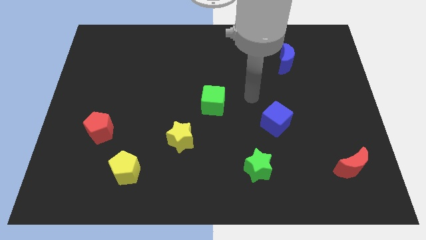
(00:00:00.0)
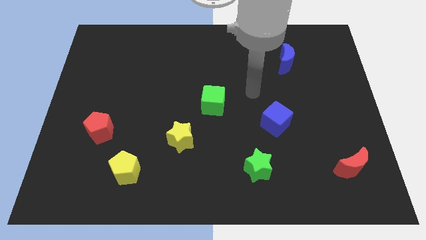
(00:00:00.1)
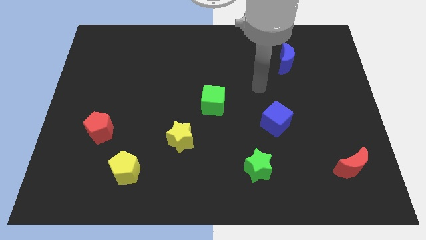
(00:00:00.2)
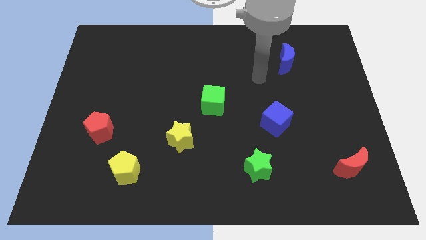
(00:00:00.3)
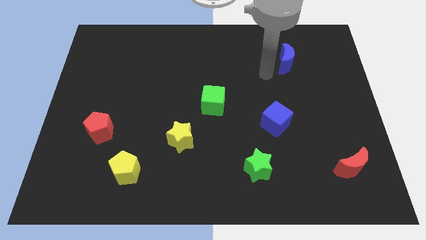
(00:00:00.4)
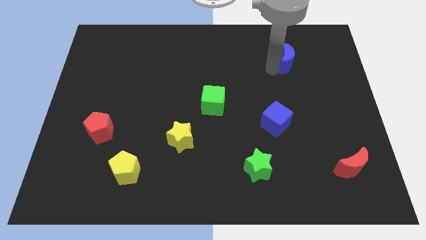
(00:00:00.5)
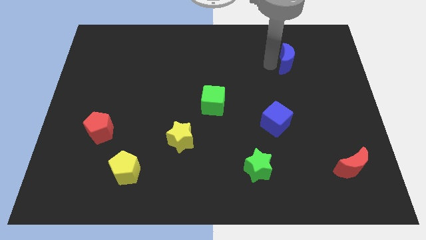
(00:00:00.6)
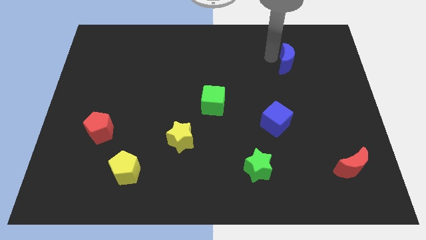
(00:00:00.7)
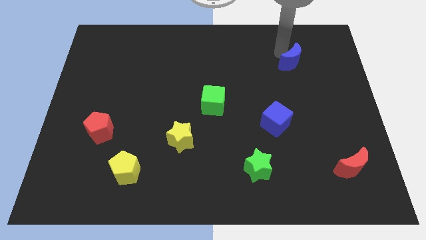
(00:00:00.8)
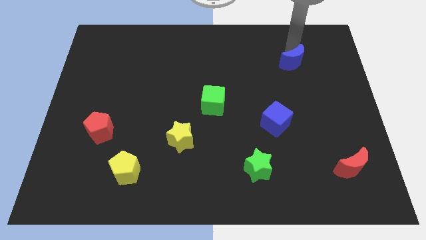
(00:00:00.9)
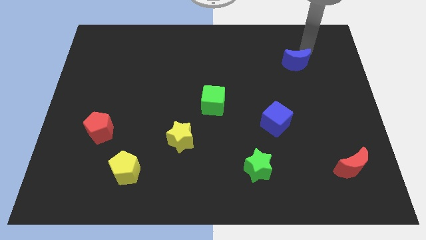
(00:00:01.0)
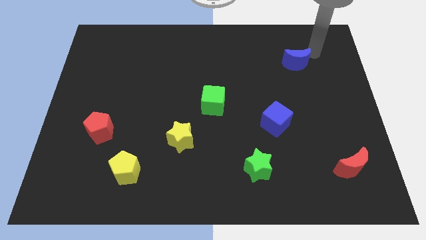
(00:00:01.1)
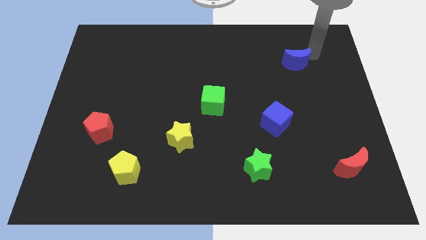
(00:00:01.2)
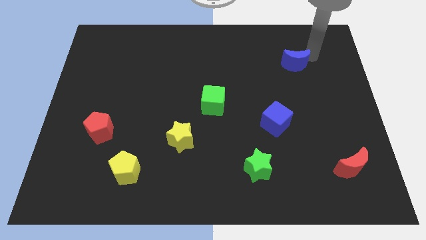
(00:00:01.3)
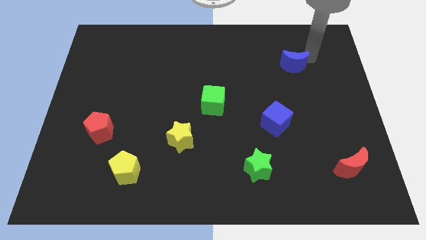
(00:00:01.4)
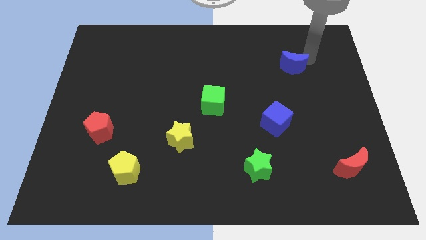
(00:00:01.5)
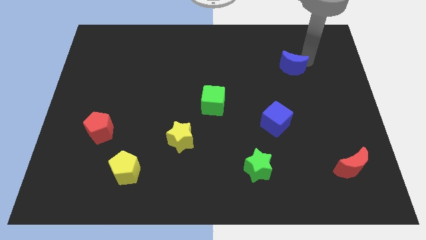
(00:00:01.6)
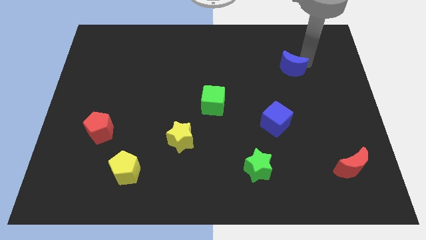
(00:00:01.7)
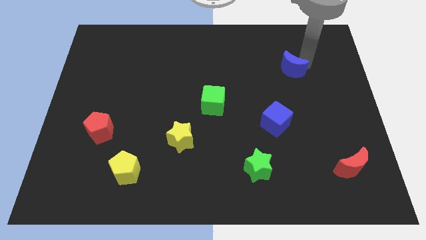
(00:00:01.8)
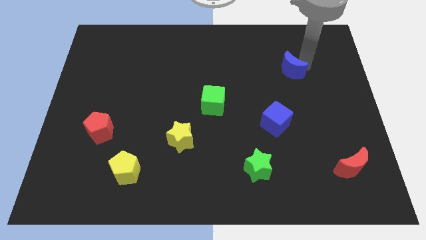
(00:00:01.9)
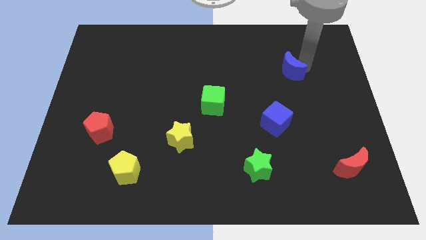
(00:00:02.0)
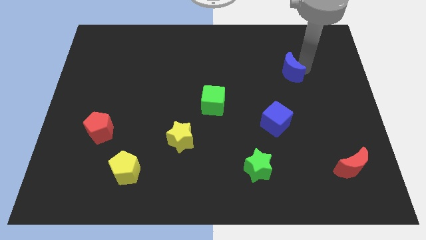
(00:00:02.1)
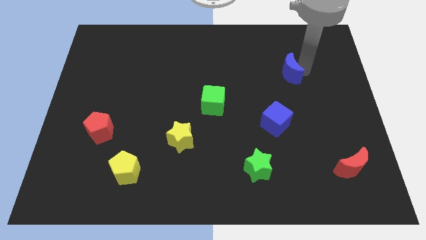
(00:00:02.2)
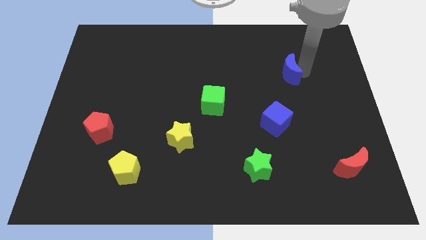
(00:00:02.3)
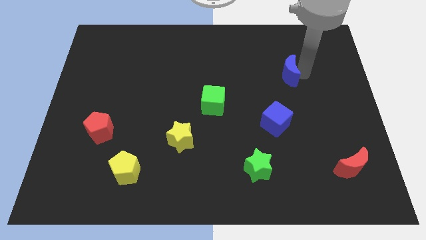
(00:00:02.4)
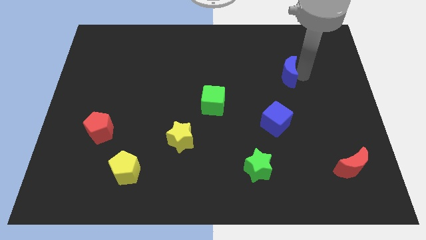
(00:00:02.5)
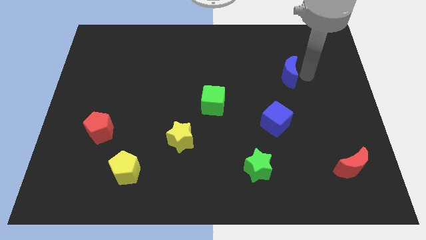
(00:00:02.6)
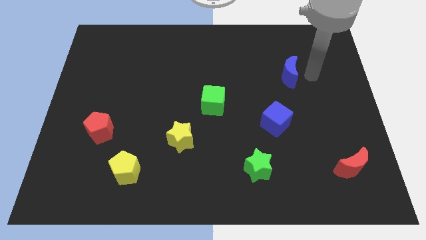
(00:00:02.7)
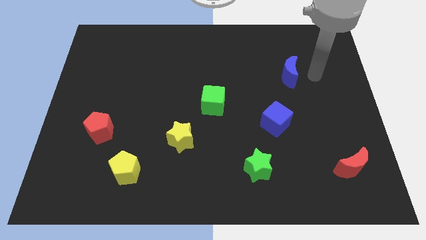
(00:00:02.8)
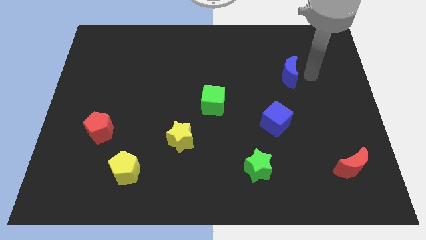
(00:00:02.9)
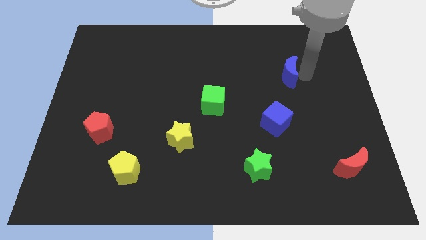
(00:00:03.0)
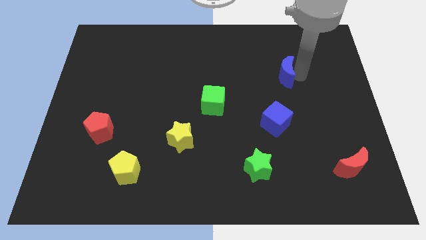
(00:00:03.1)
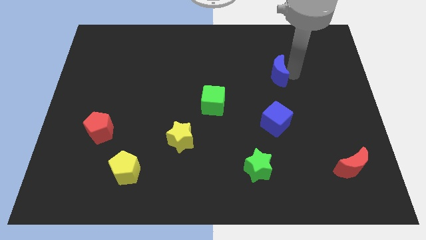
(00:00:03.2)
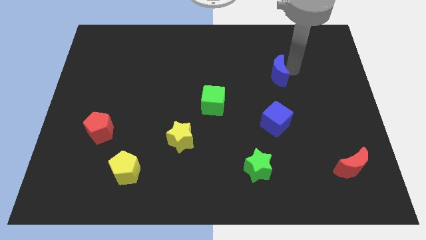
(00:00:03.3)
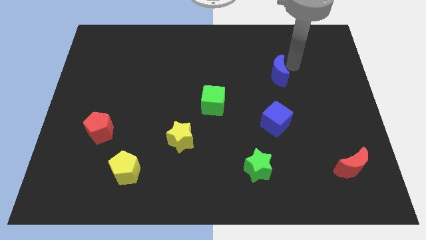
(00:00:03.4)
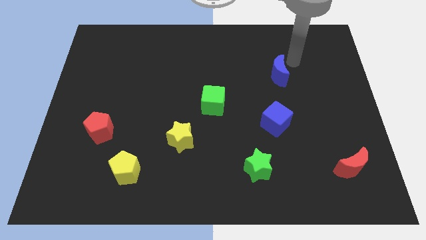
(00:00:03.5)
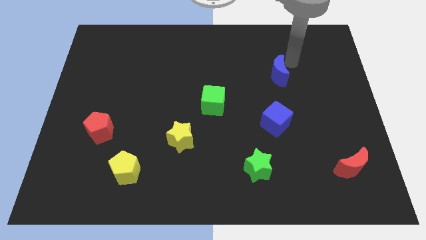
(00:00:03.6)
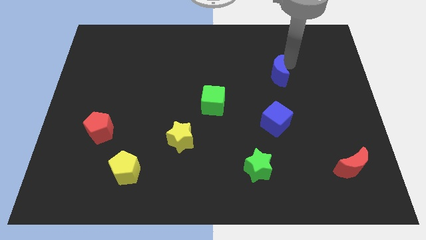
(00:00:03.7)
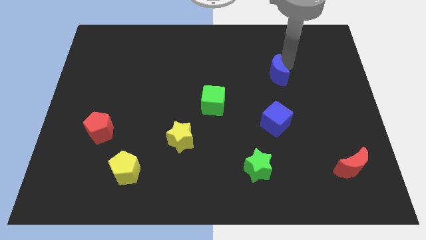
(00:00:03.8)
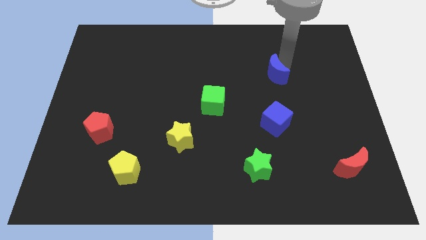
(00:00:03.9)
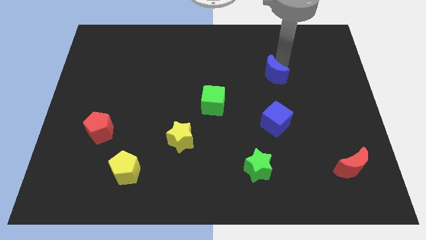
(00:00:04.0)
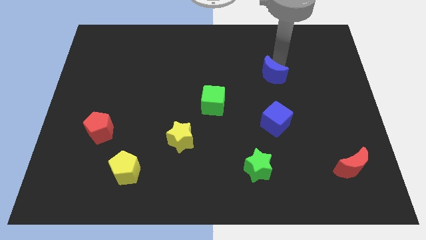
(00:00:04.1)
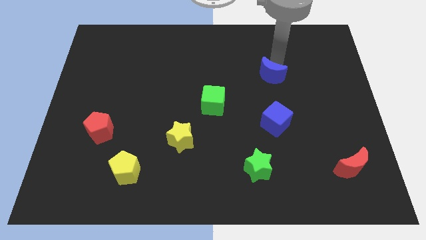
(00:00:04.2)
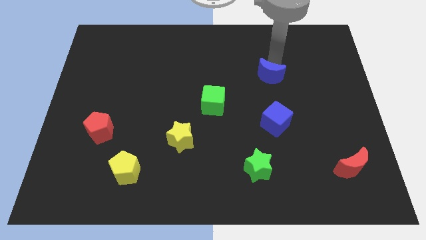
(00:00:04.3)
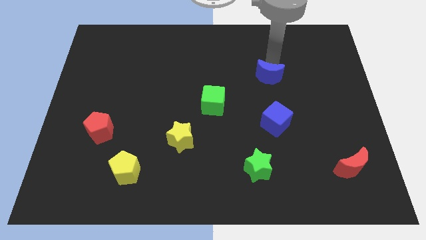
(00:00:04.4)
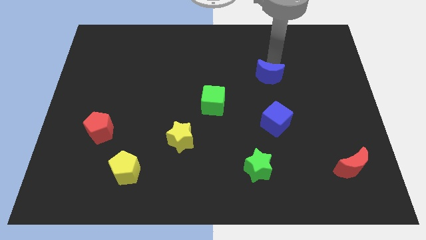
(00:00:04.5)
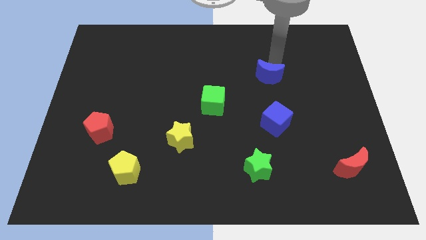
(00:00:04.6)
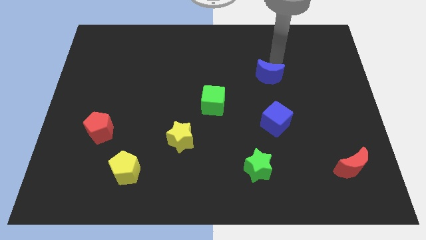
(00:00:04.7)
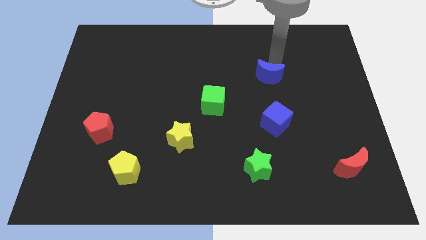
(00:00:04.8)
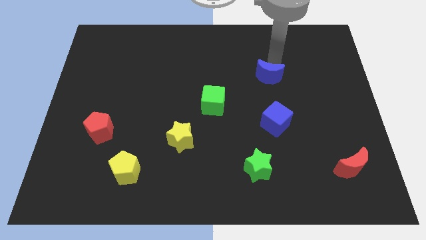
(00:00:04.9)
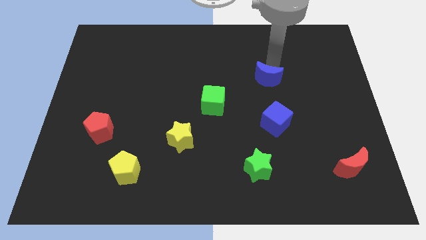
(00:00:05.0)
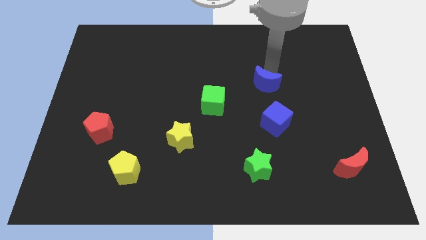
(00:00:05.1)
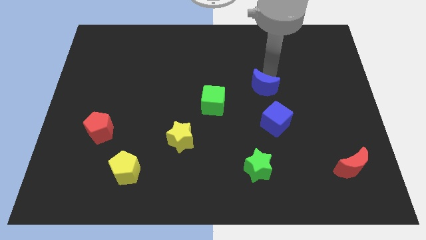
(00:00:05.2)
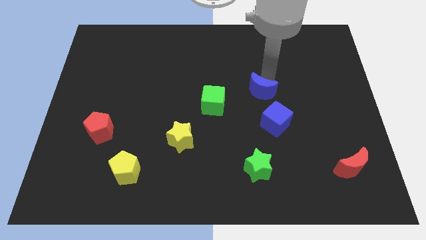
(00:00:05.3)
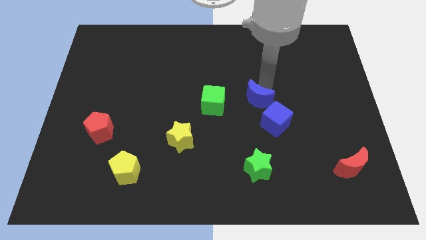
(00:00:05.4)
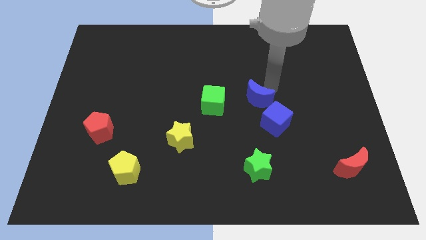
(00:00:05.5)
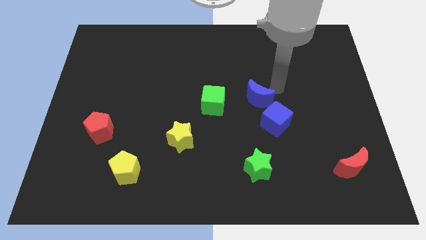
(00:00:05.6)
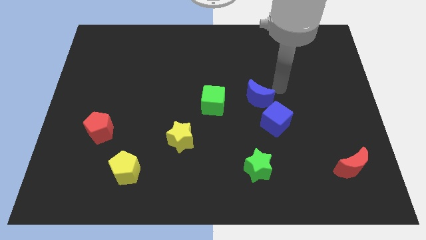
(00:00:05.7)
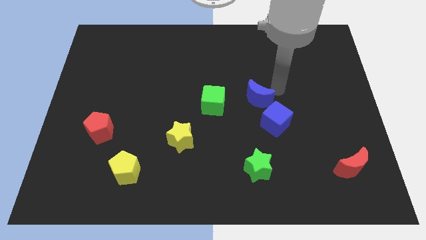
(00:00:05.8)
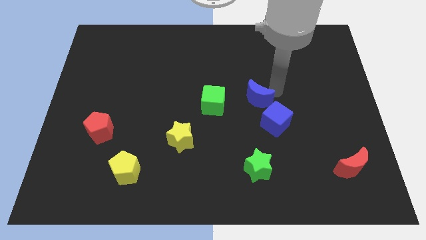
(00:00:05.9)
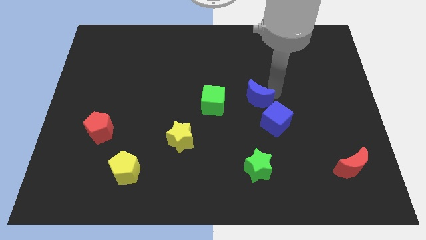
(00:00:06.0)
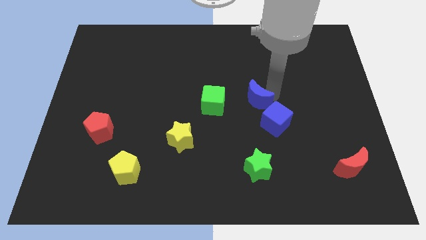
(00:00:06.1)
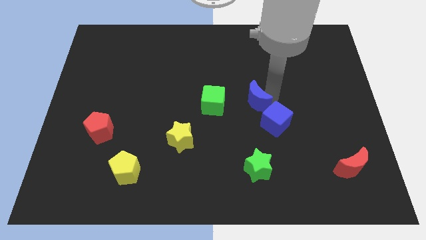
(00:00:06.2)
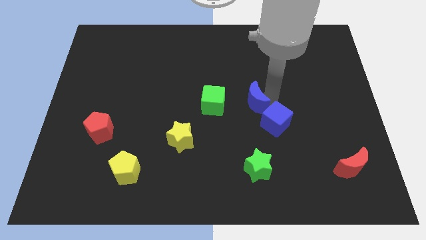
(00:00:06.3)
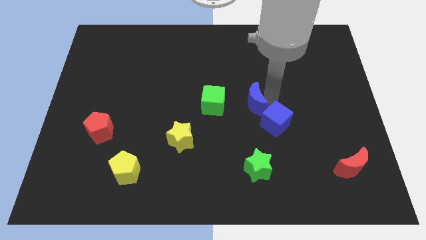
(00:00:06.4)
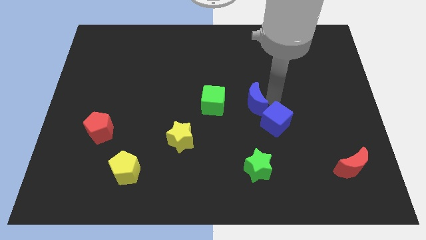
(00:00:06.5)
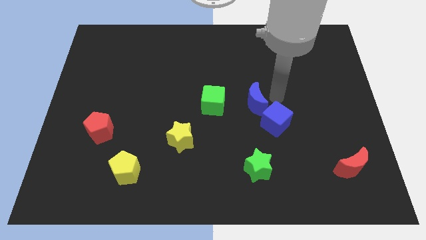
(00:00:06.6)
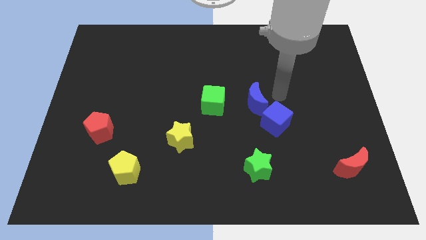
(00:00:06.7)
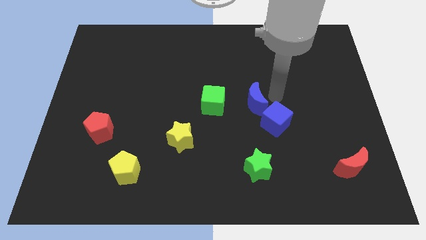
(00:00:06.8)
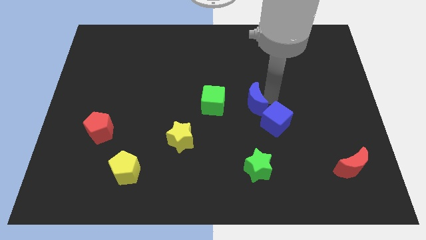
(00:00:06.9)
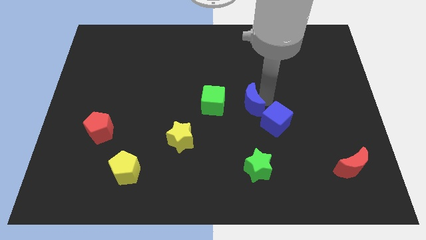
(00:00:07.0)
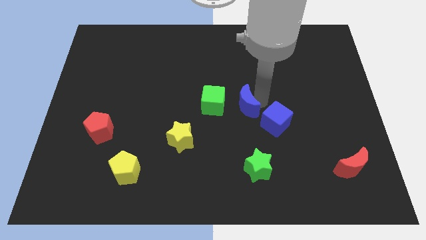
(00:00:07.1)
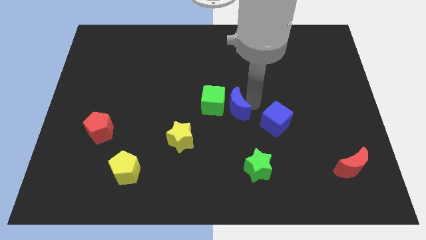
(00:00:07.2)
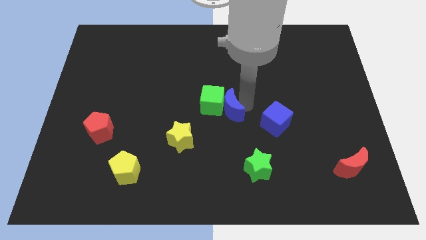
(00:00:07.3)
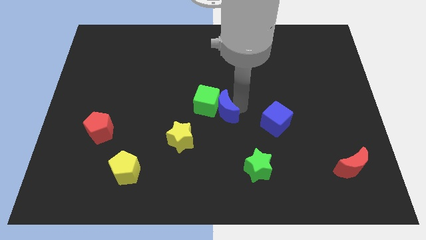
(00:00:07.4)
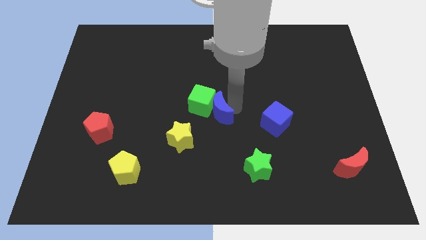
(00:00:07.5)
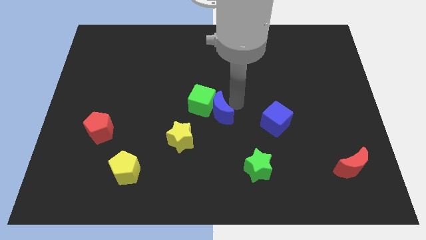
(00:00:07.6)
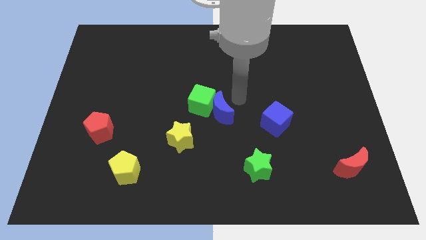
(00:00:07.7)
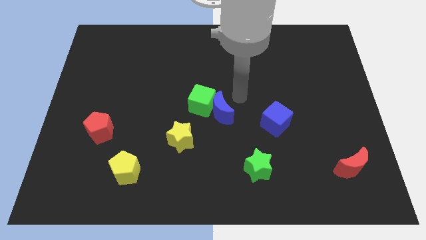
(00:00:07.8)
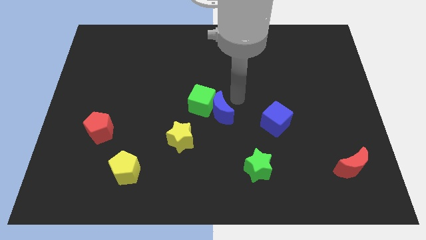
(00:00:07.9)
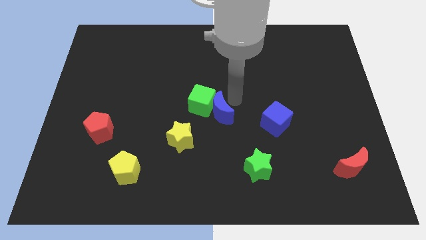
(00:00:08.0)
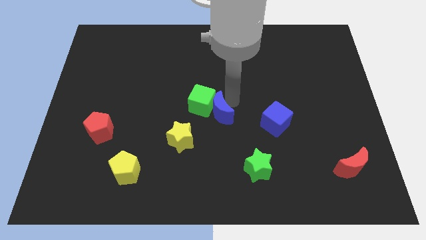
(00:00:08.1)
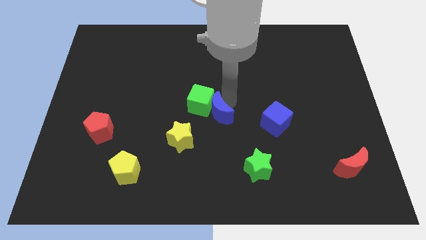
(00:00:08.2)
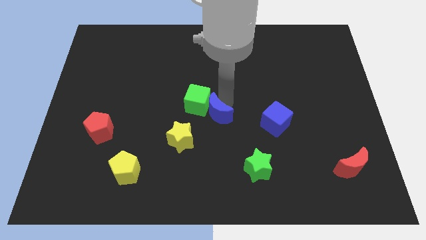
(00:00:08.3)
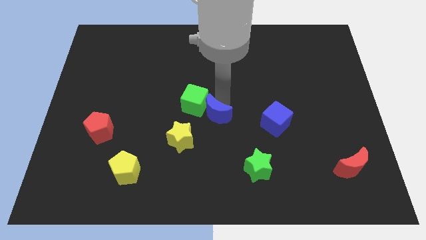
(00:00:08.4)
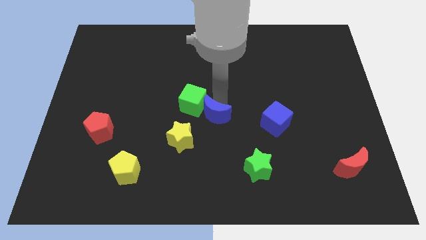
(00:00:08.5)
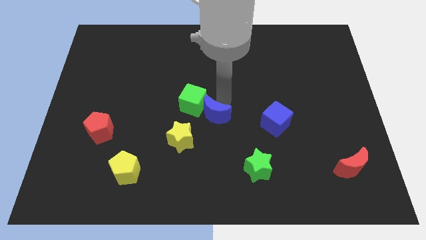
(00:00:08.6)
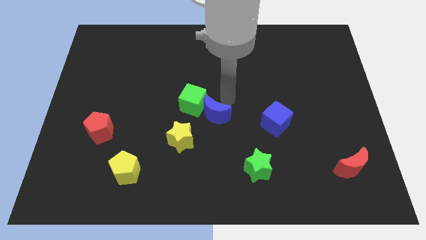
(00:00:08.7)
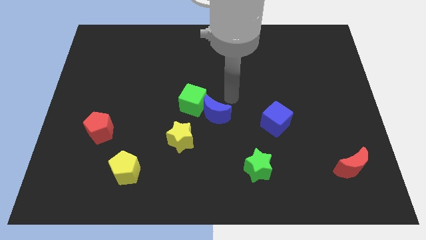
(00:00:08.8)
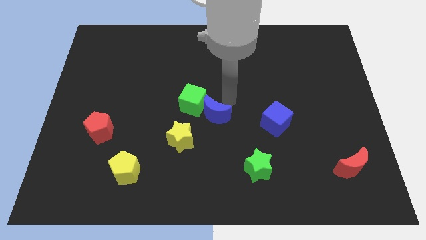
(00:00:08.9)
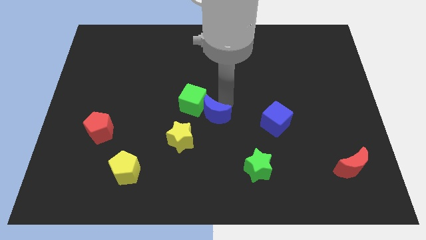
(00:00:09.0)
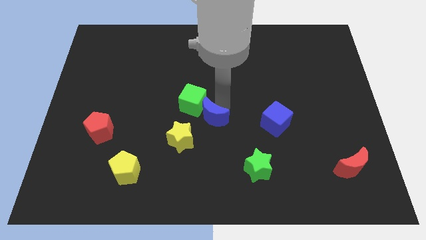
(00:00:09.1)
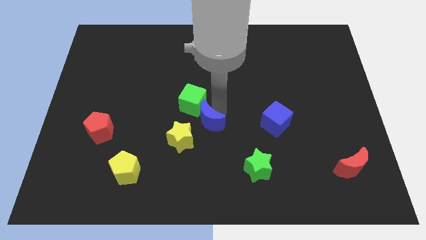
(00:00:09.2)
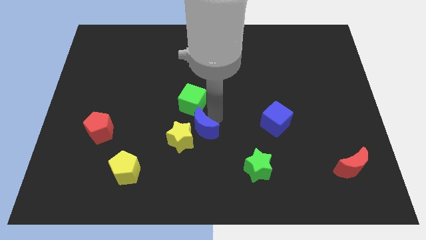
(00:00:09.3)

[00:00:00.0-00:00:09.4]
put the blue moon to the yellow star
